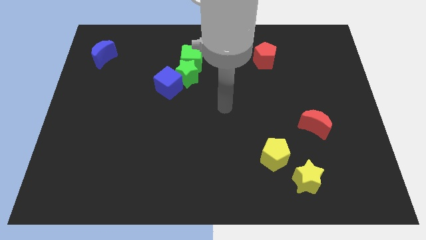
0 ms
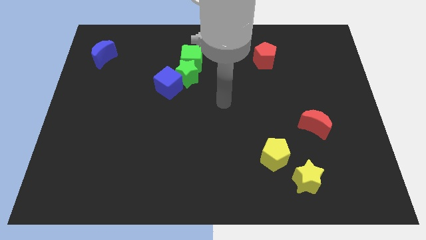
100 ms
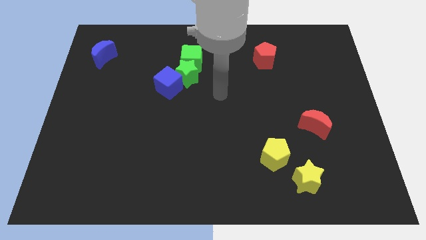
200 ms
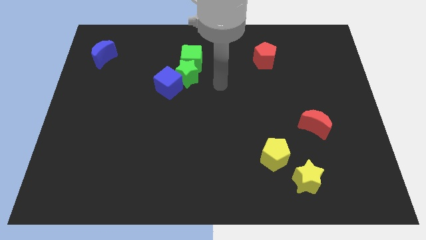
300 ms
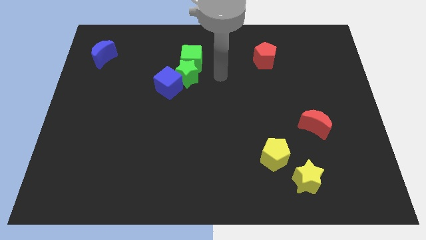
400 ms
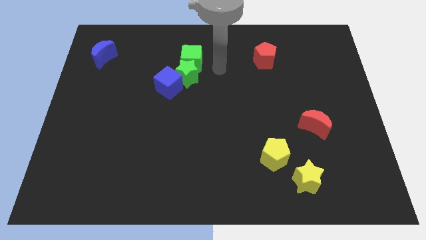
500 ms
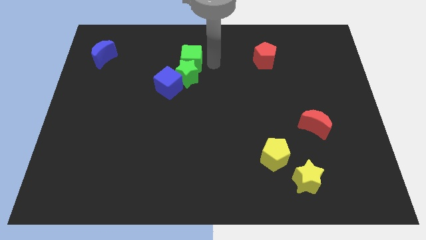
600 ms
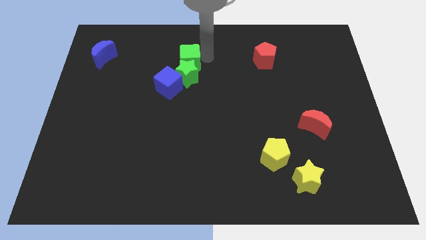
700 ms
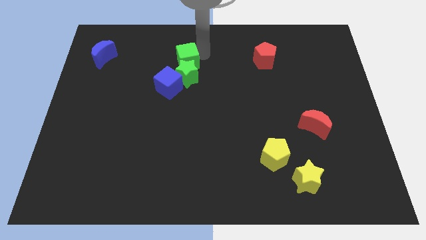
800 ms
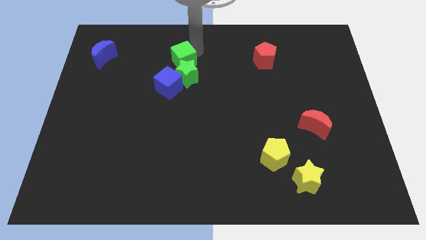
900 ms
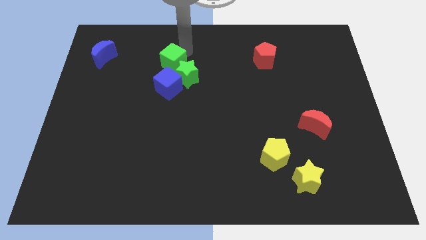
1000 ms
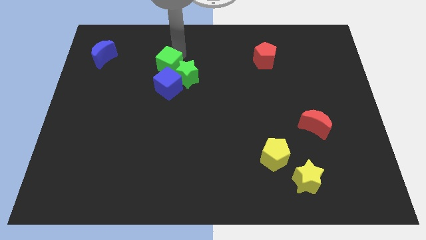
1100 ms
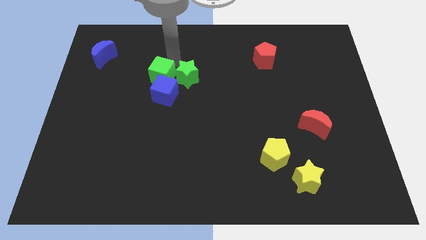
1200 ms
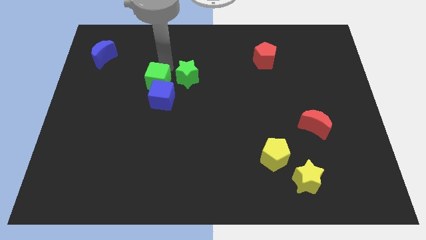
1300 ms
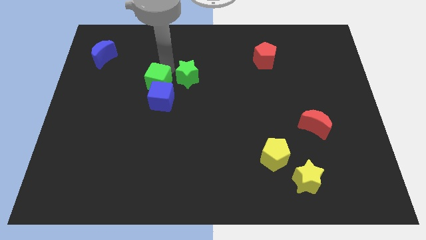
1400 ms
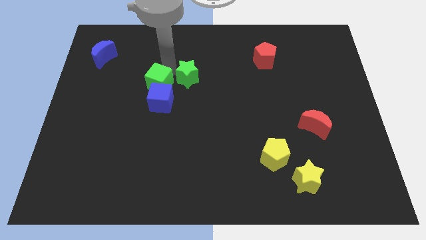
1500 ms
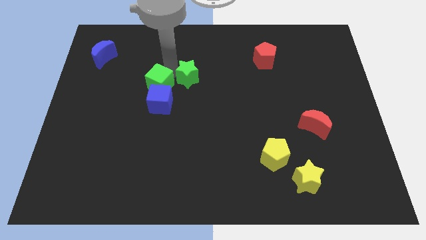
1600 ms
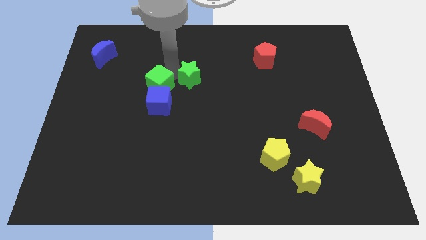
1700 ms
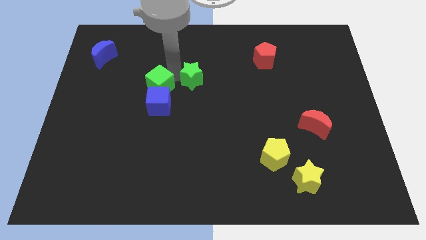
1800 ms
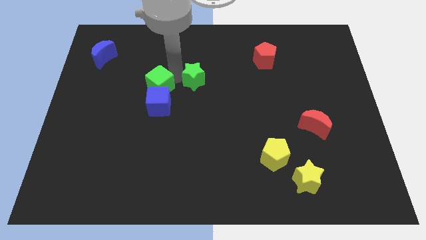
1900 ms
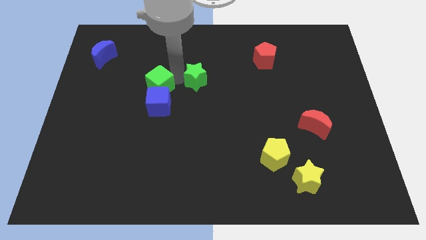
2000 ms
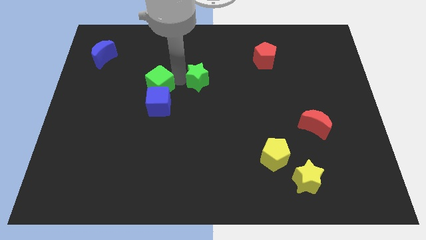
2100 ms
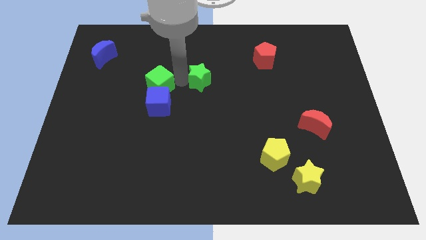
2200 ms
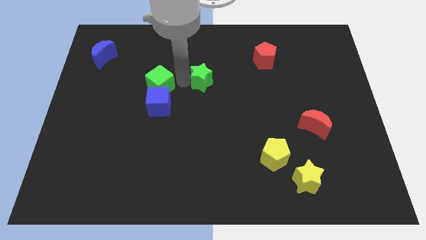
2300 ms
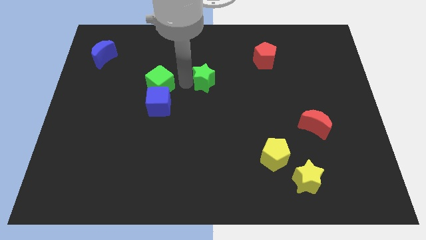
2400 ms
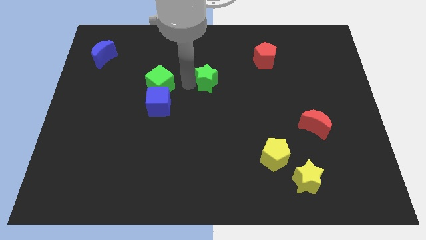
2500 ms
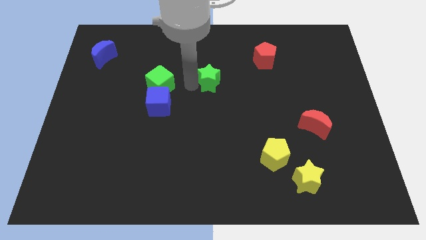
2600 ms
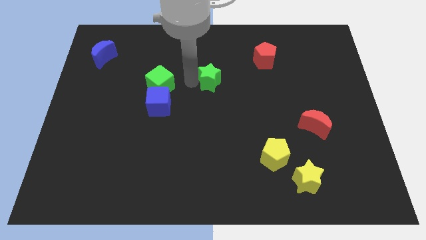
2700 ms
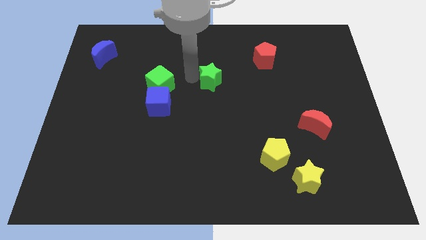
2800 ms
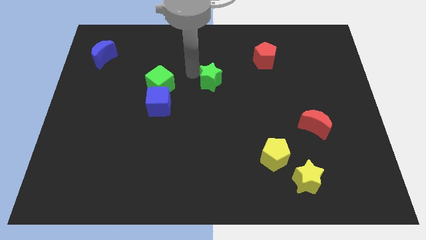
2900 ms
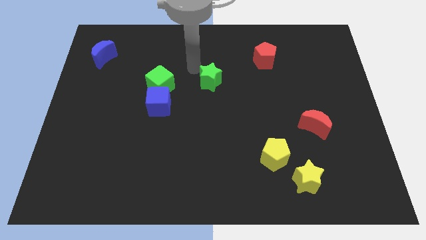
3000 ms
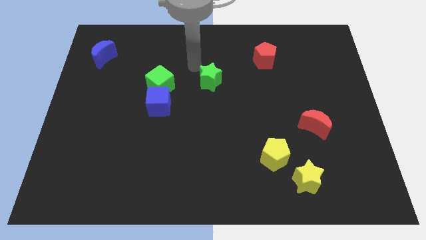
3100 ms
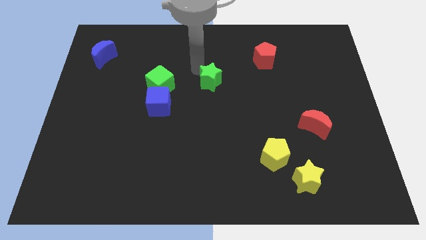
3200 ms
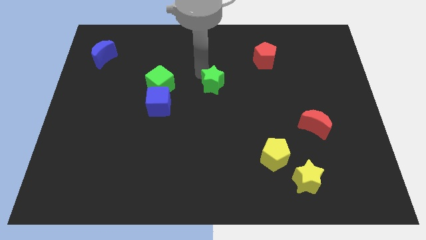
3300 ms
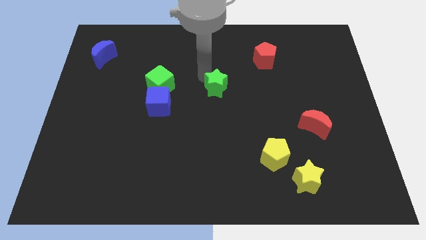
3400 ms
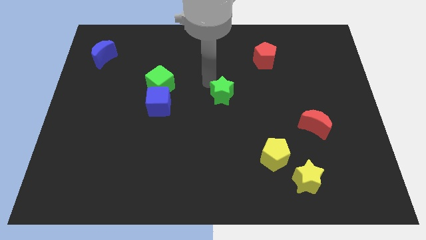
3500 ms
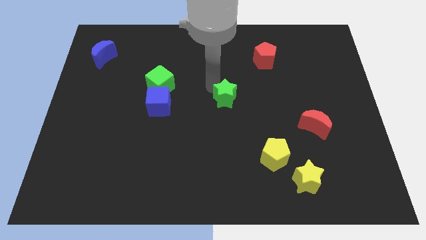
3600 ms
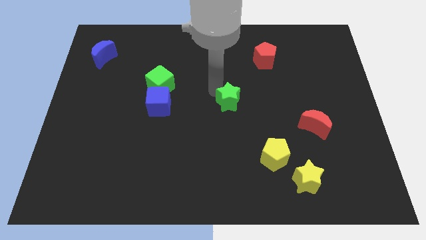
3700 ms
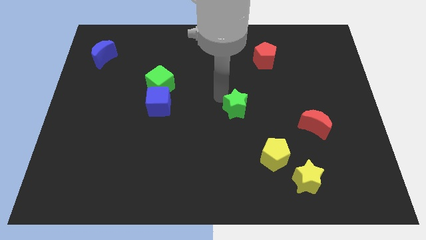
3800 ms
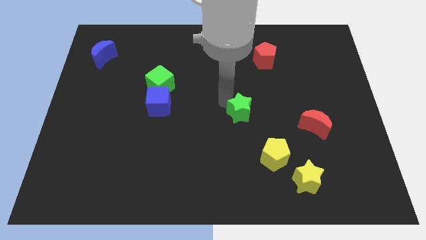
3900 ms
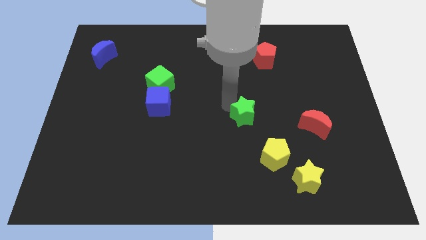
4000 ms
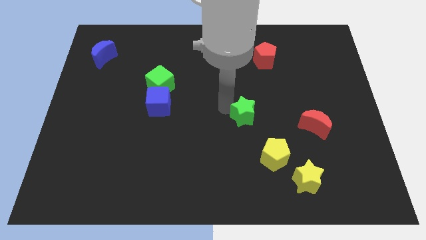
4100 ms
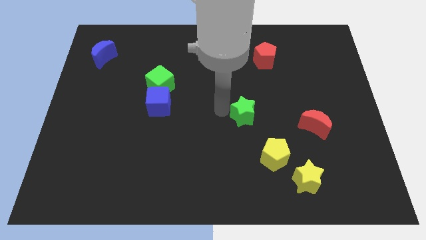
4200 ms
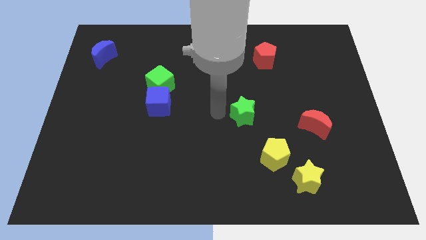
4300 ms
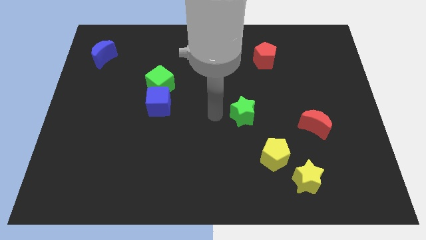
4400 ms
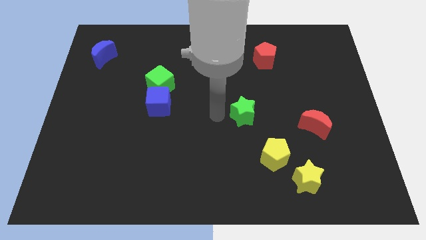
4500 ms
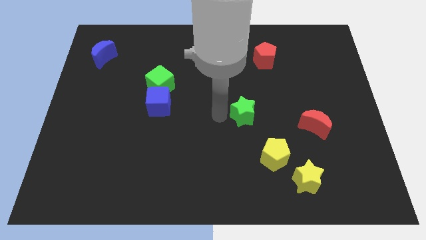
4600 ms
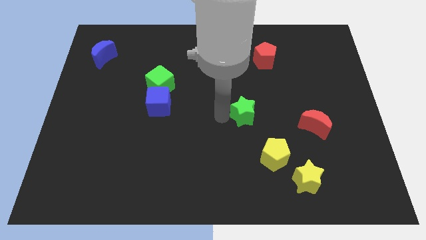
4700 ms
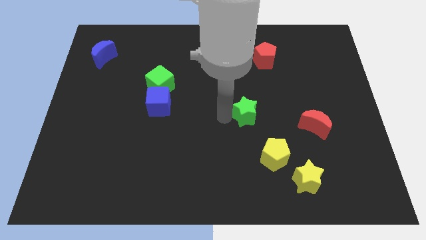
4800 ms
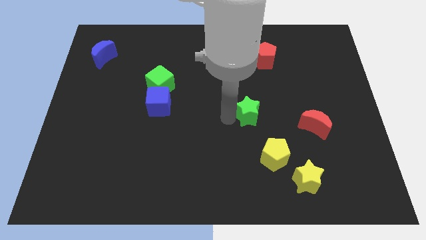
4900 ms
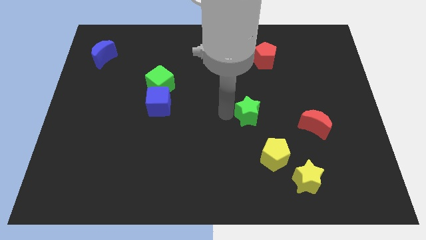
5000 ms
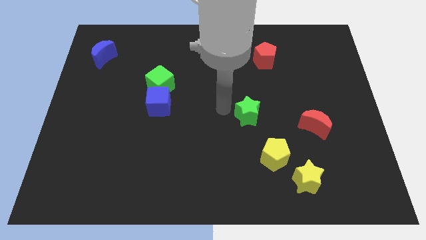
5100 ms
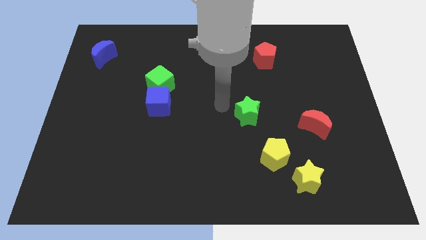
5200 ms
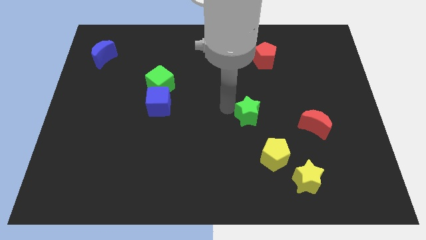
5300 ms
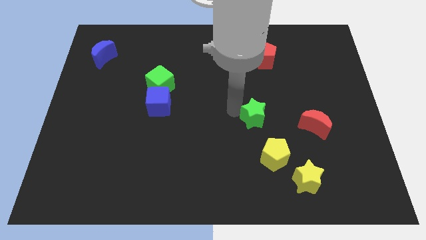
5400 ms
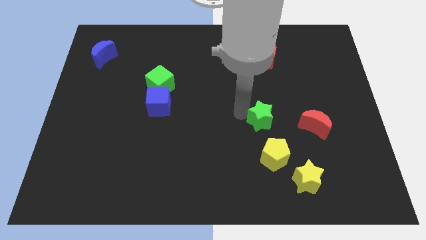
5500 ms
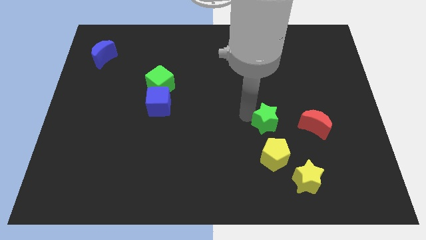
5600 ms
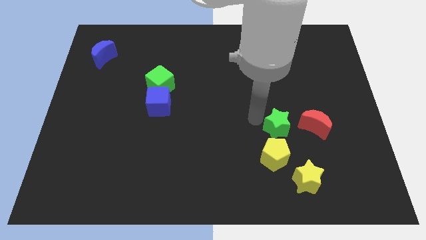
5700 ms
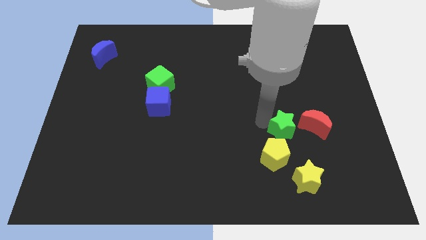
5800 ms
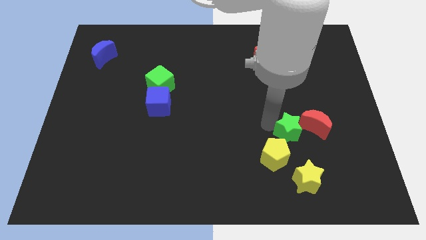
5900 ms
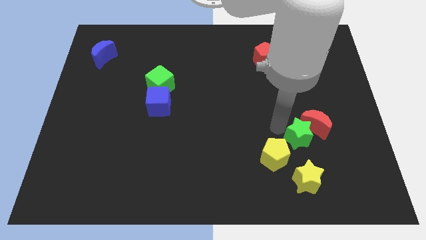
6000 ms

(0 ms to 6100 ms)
push the green star right of the yellow pentagon

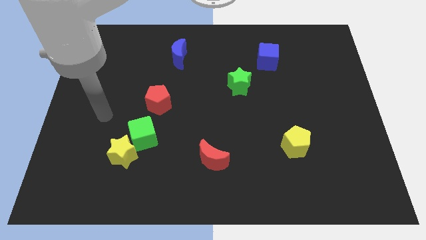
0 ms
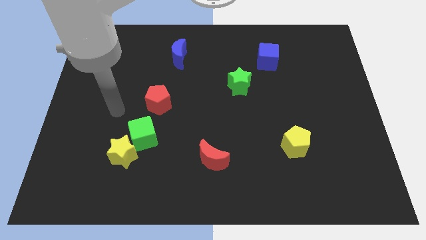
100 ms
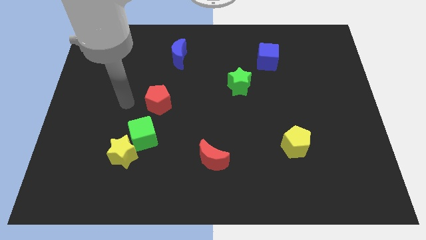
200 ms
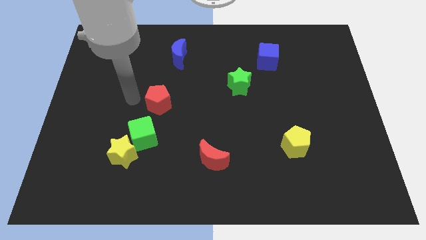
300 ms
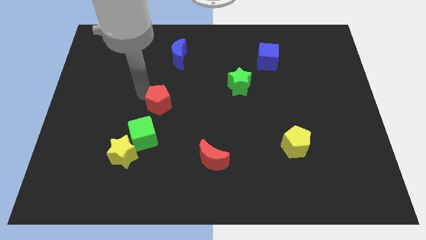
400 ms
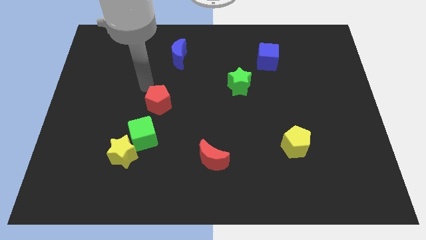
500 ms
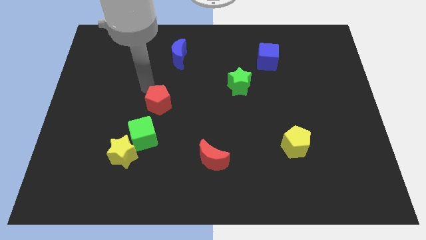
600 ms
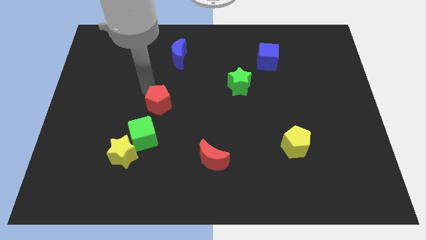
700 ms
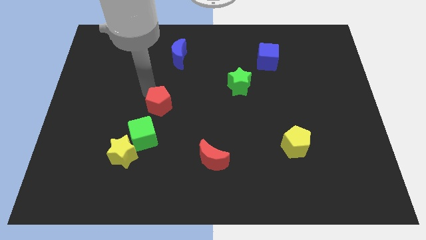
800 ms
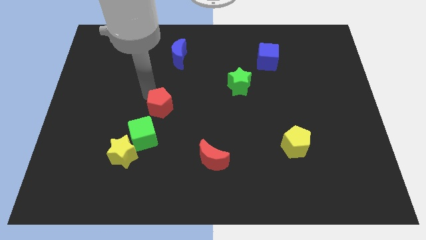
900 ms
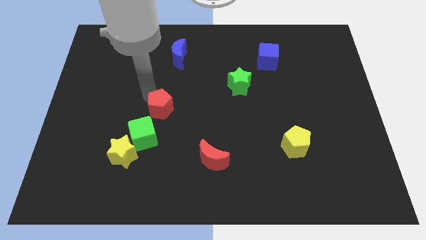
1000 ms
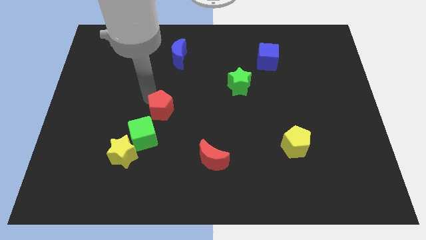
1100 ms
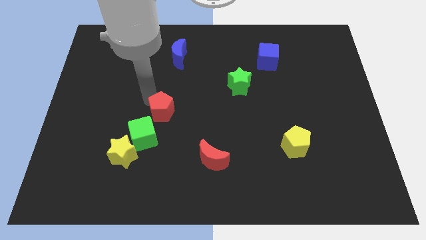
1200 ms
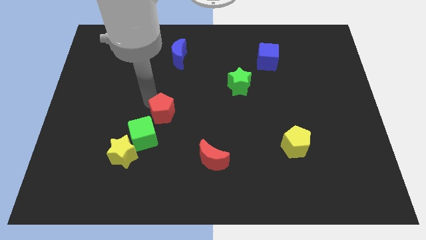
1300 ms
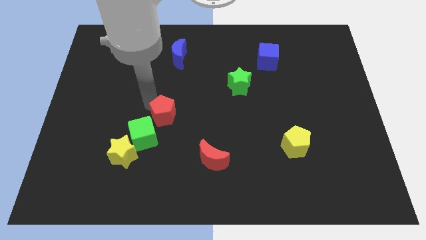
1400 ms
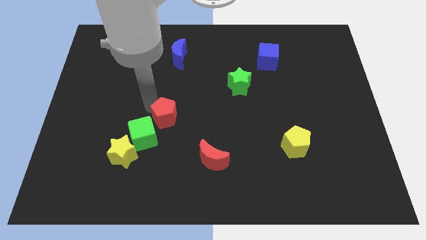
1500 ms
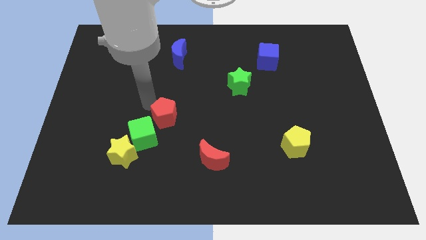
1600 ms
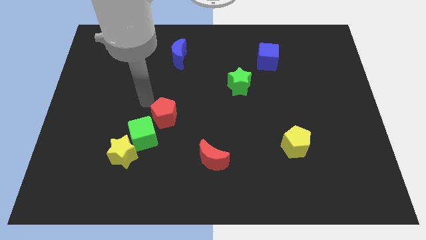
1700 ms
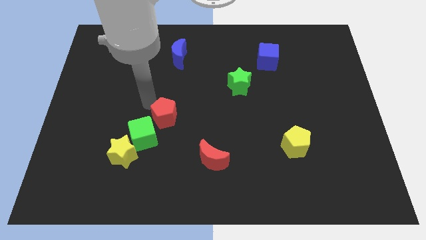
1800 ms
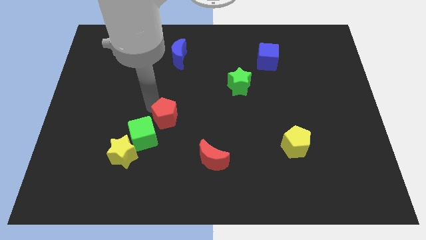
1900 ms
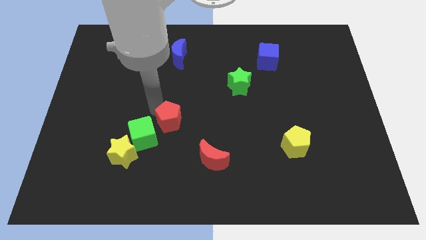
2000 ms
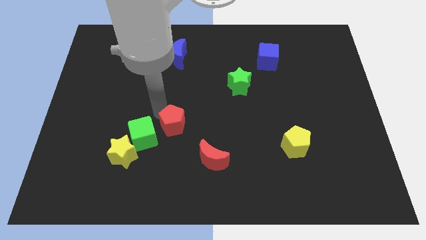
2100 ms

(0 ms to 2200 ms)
put the red pentagon to the top left side of the red moon
